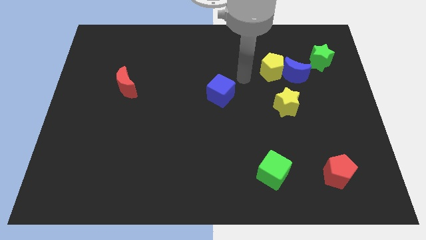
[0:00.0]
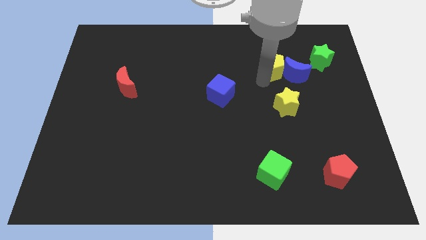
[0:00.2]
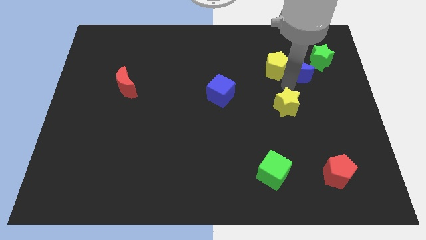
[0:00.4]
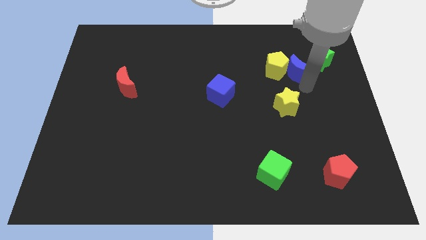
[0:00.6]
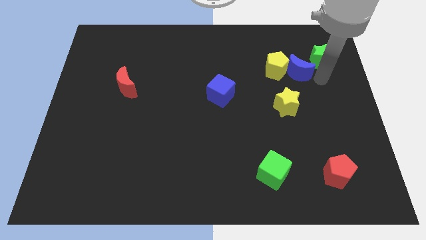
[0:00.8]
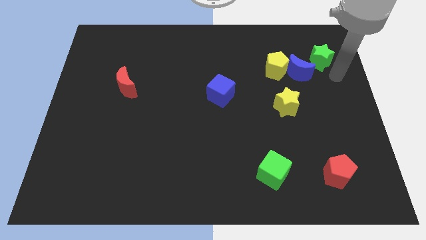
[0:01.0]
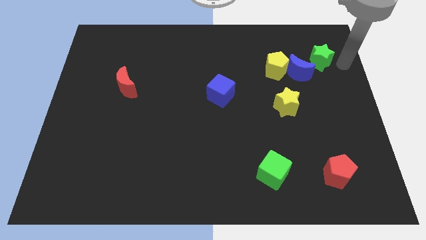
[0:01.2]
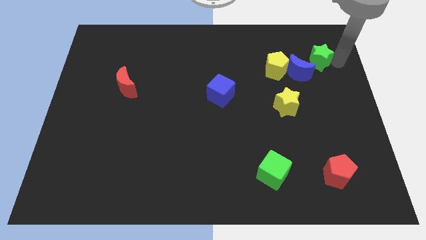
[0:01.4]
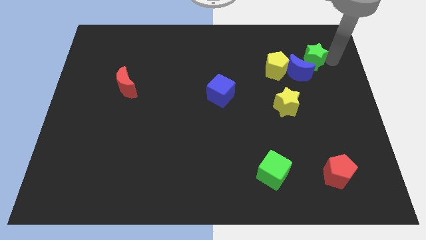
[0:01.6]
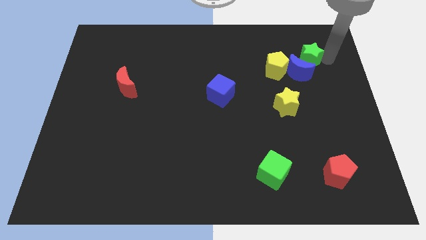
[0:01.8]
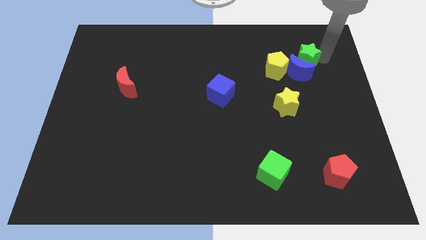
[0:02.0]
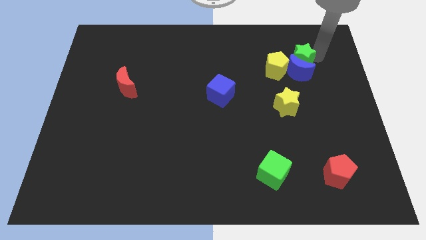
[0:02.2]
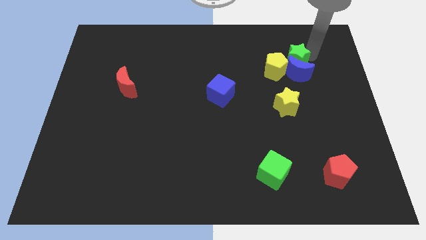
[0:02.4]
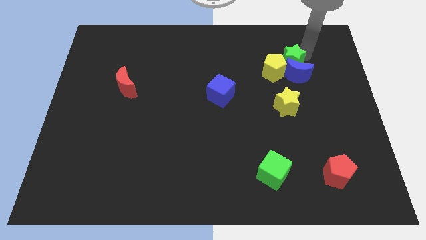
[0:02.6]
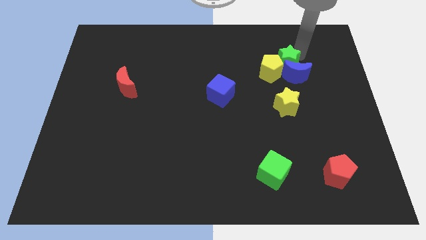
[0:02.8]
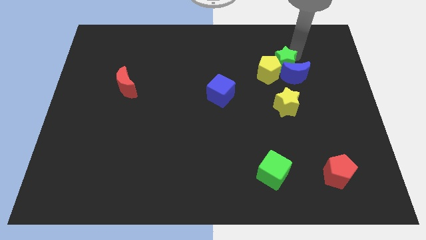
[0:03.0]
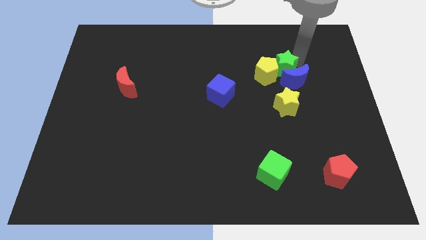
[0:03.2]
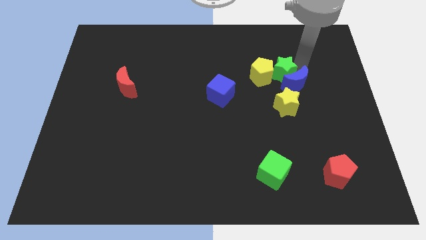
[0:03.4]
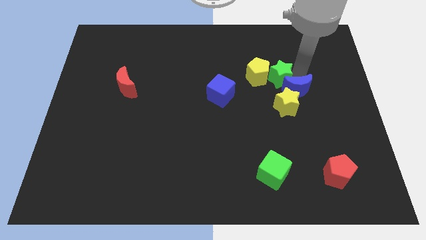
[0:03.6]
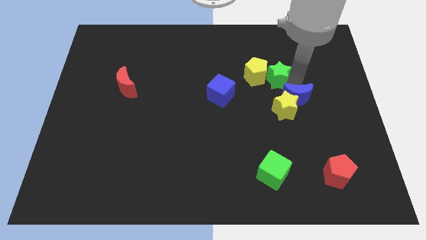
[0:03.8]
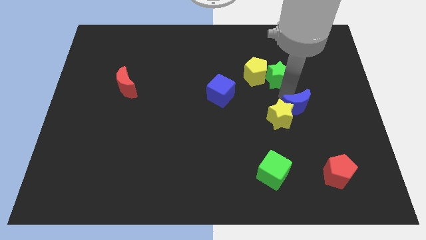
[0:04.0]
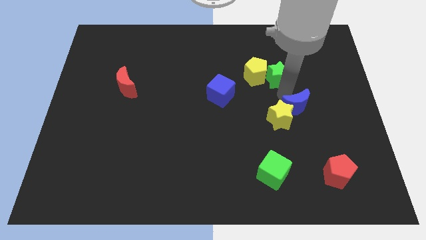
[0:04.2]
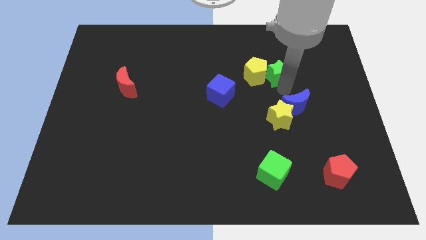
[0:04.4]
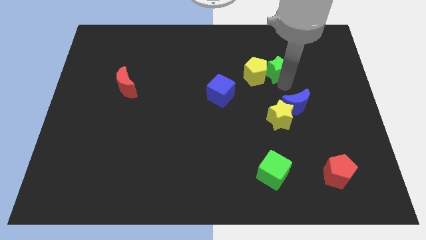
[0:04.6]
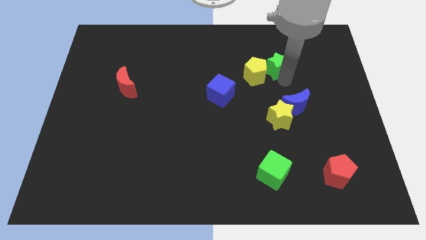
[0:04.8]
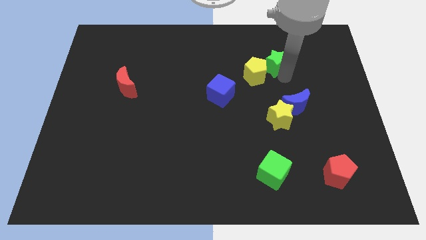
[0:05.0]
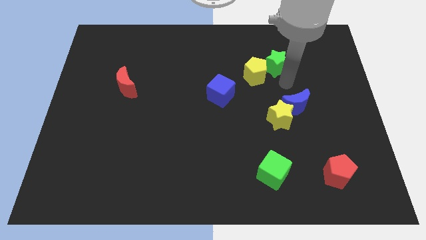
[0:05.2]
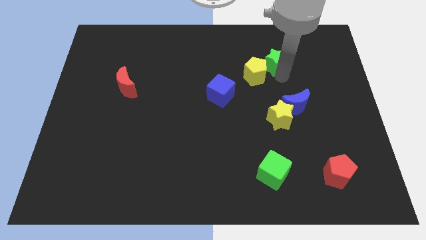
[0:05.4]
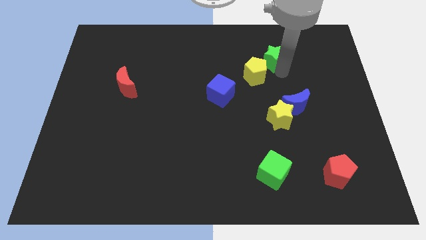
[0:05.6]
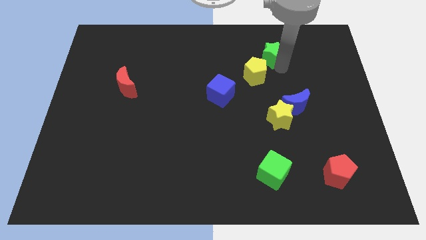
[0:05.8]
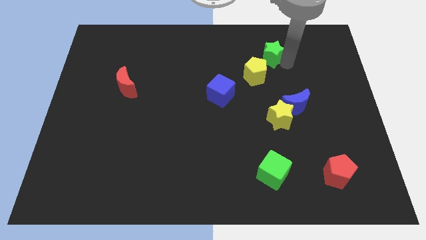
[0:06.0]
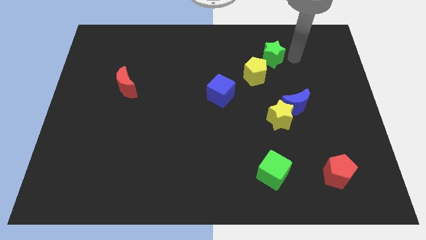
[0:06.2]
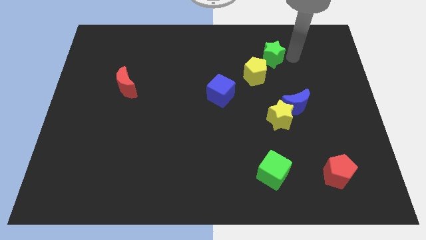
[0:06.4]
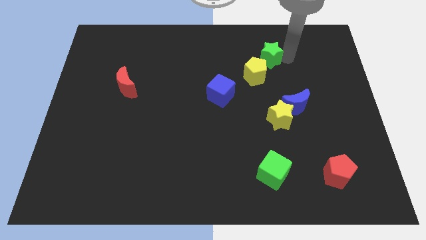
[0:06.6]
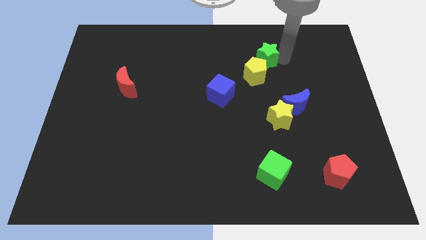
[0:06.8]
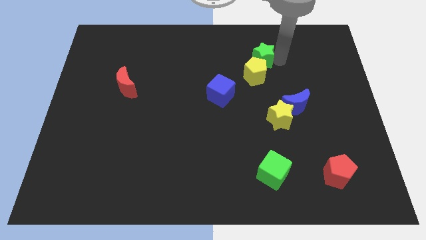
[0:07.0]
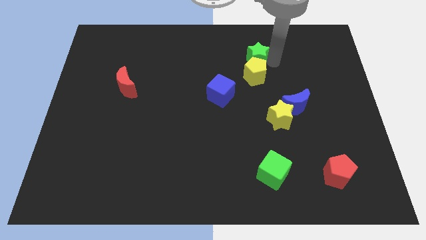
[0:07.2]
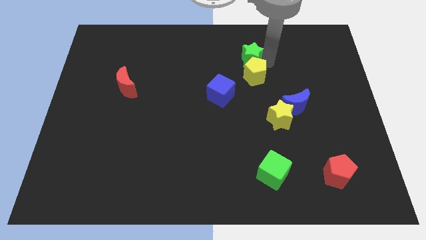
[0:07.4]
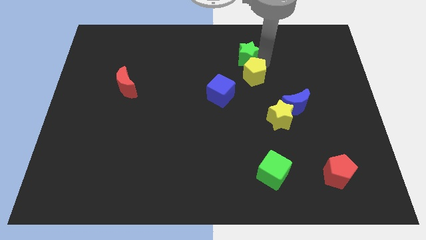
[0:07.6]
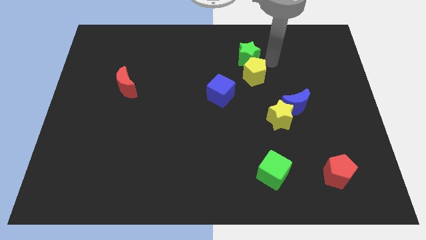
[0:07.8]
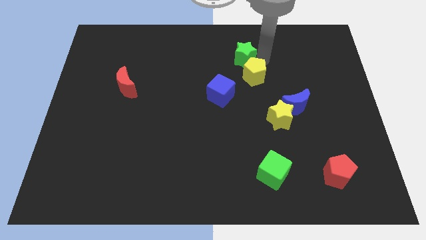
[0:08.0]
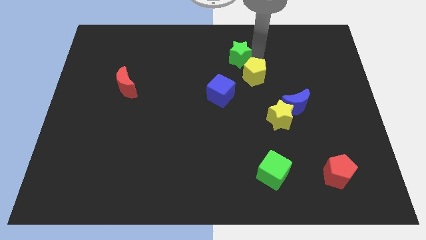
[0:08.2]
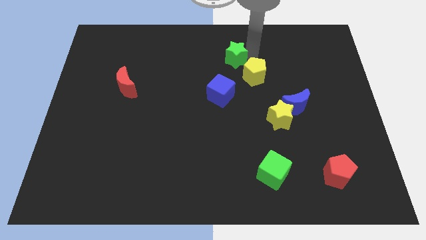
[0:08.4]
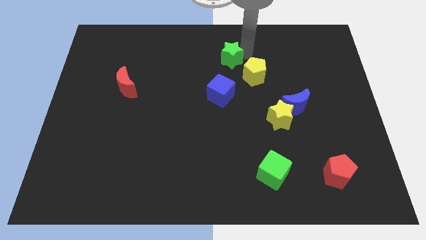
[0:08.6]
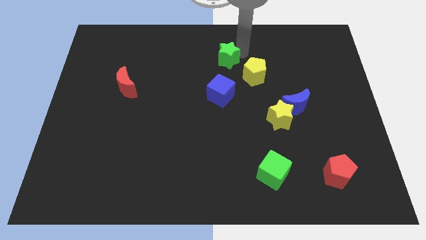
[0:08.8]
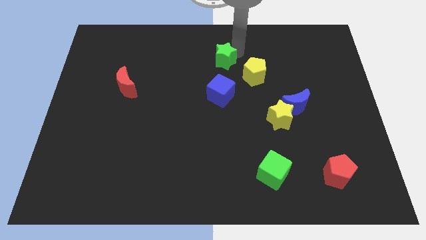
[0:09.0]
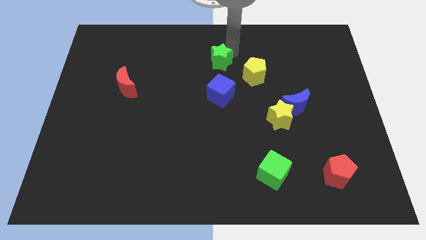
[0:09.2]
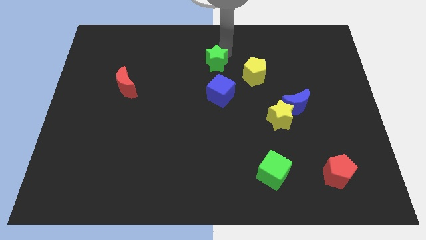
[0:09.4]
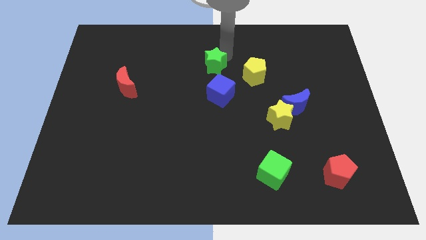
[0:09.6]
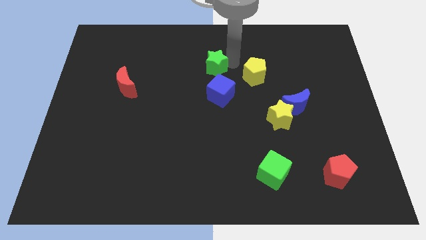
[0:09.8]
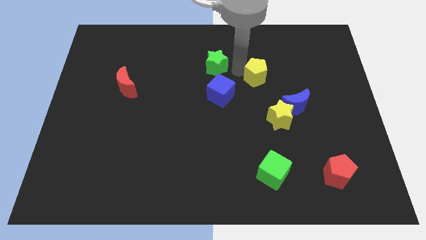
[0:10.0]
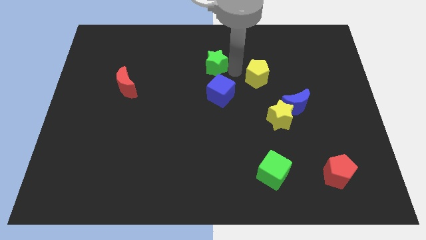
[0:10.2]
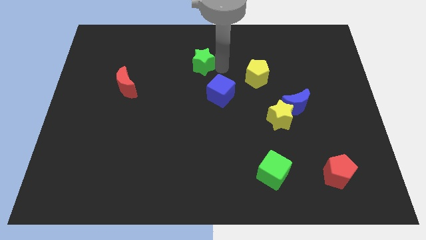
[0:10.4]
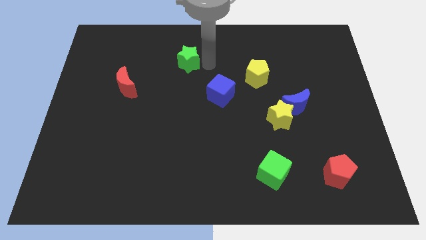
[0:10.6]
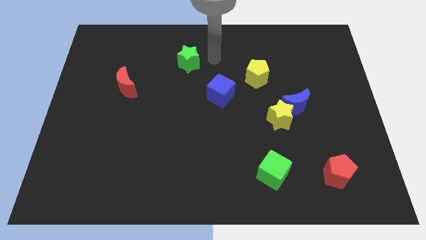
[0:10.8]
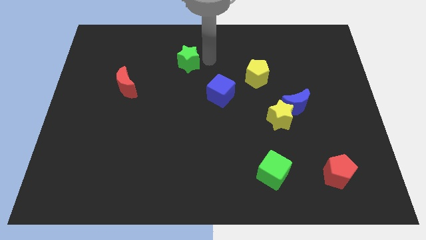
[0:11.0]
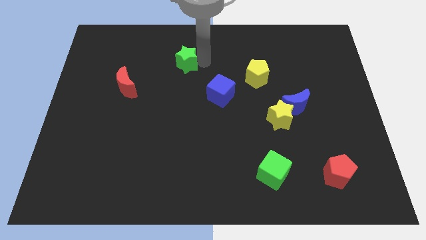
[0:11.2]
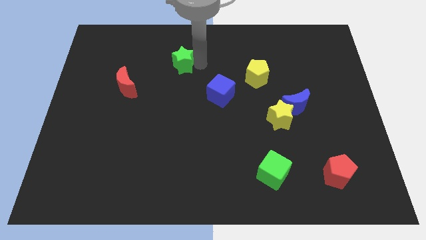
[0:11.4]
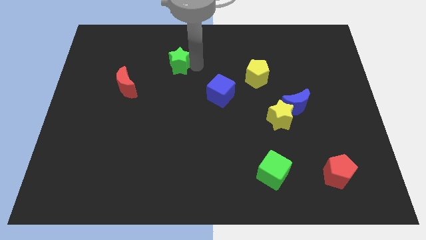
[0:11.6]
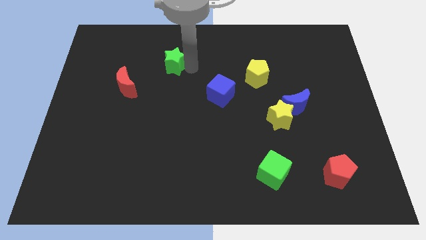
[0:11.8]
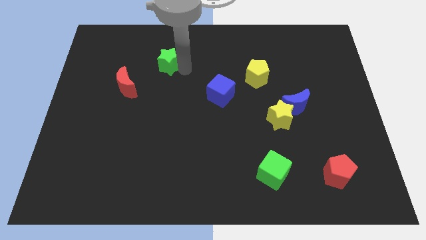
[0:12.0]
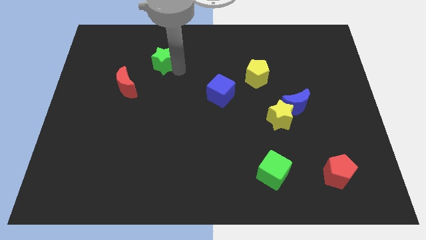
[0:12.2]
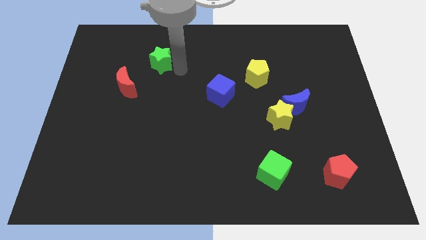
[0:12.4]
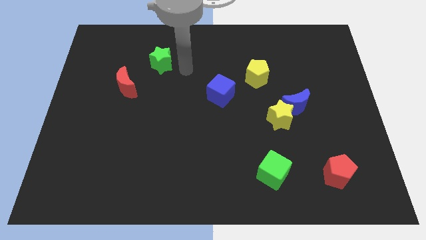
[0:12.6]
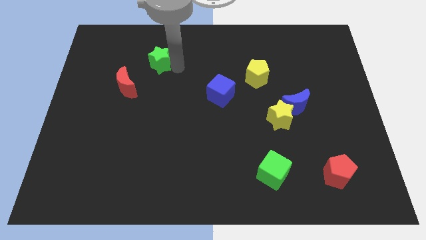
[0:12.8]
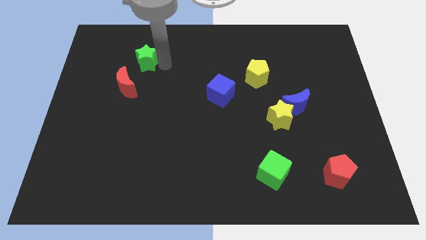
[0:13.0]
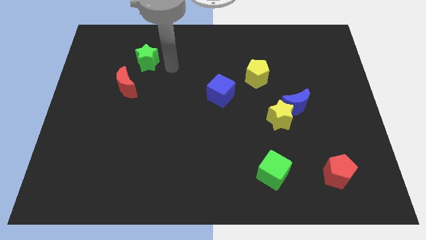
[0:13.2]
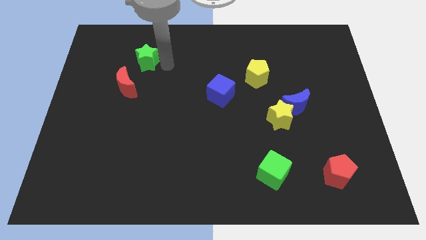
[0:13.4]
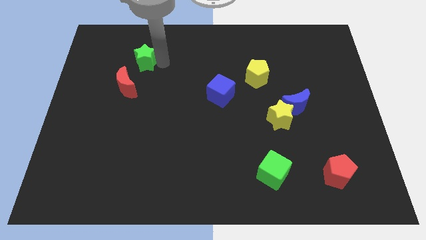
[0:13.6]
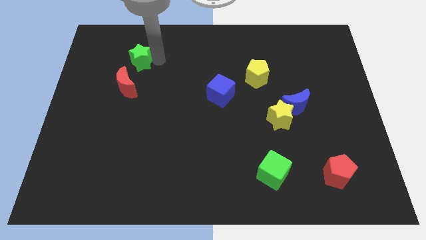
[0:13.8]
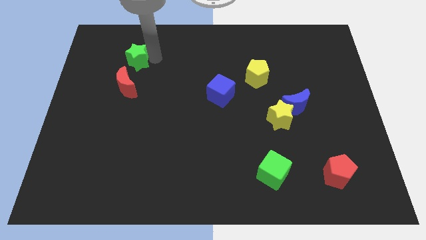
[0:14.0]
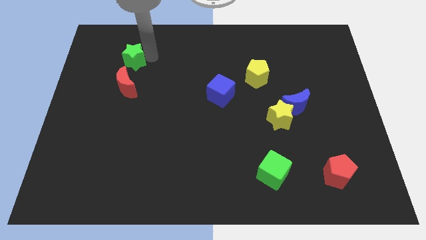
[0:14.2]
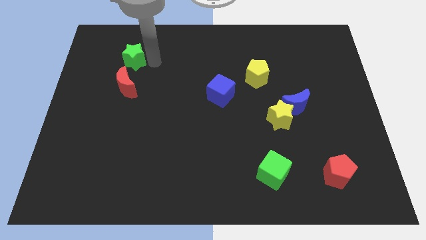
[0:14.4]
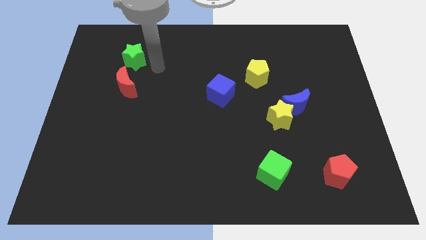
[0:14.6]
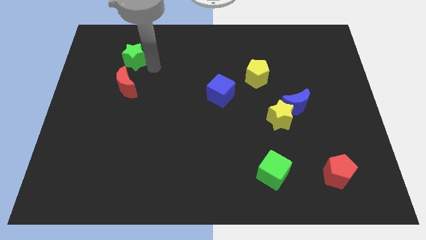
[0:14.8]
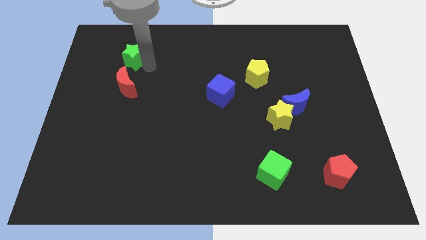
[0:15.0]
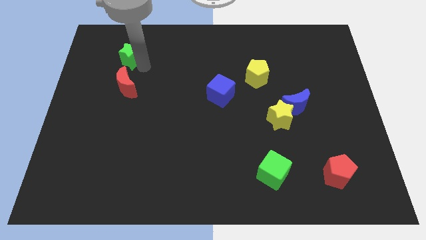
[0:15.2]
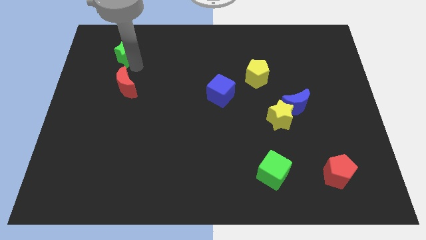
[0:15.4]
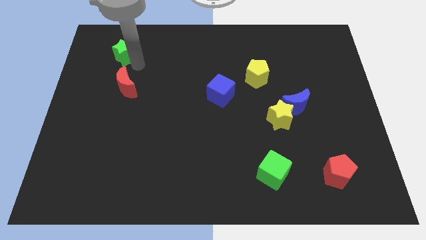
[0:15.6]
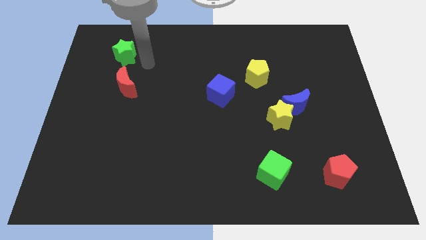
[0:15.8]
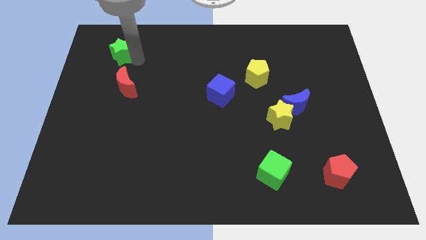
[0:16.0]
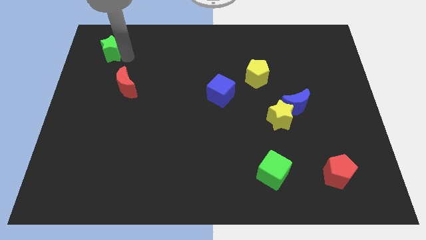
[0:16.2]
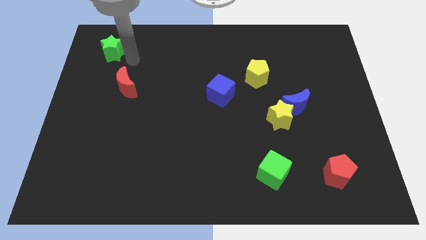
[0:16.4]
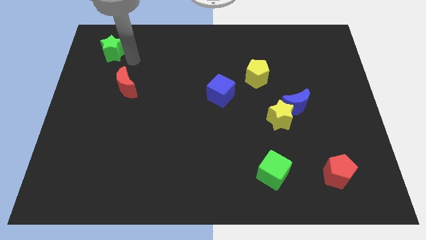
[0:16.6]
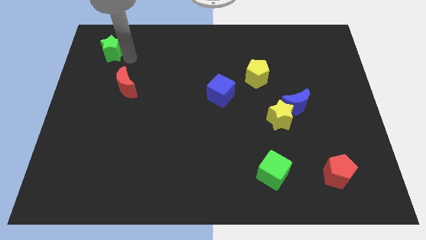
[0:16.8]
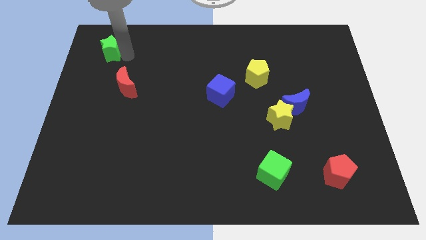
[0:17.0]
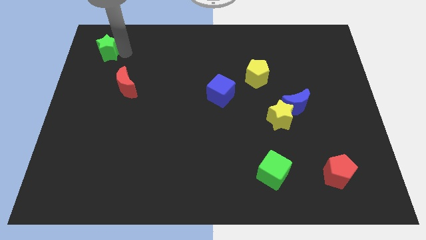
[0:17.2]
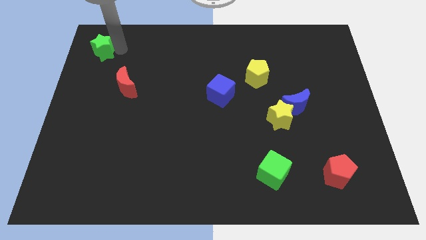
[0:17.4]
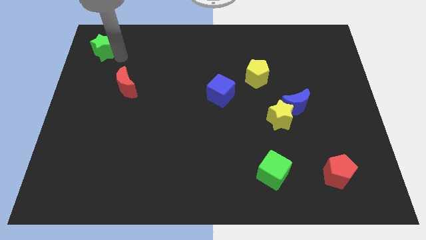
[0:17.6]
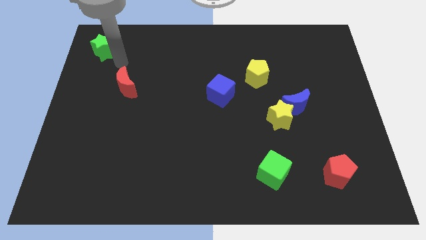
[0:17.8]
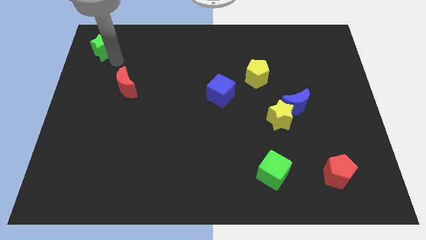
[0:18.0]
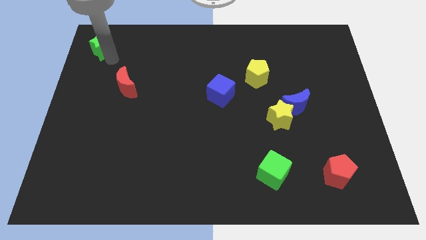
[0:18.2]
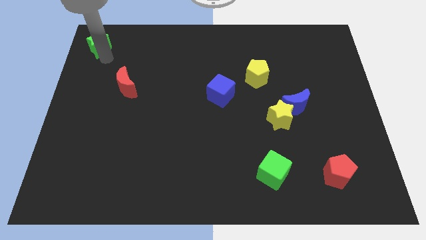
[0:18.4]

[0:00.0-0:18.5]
move the green star to the top left of the board
